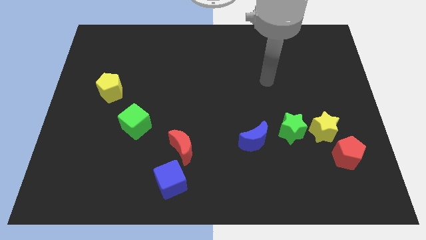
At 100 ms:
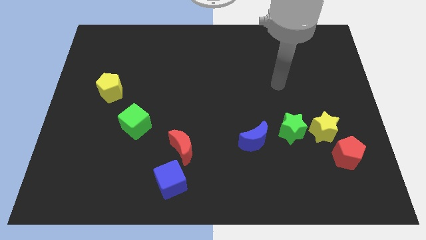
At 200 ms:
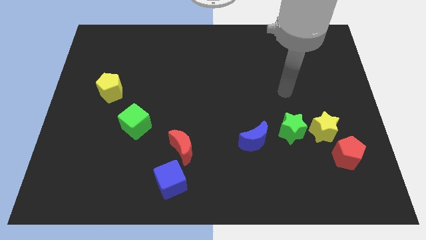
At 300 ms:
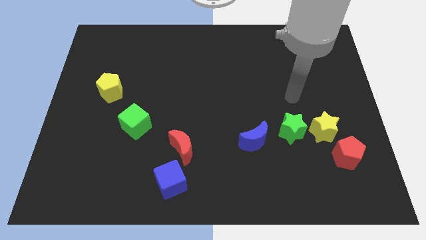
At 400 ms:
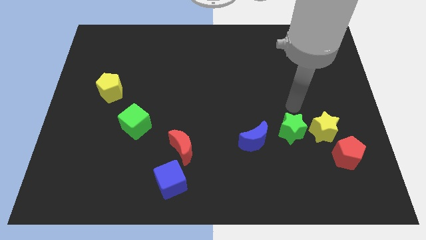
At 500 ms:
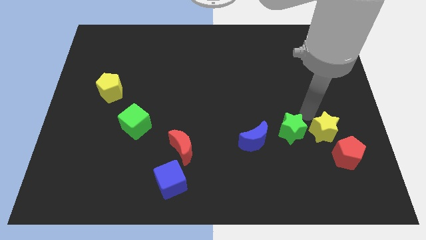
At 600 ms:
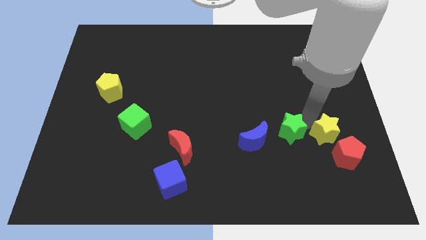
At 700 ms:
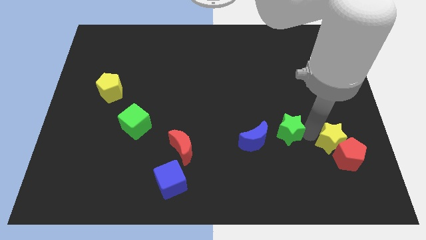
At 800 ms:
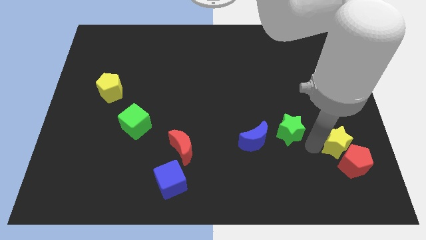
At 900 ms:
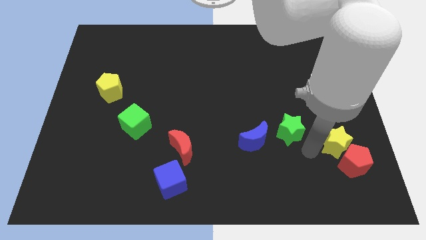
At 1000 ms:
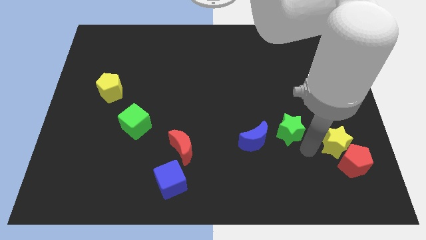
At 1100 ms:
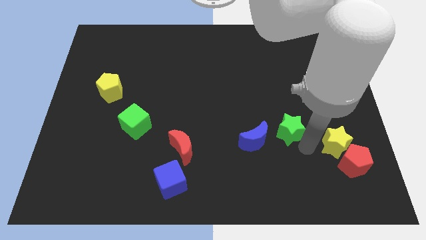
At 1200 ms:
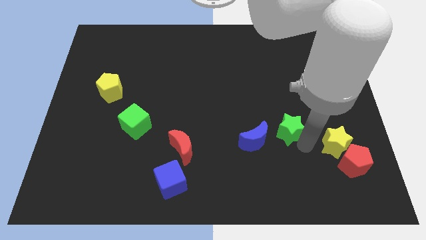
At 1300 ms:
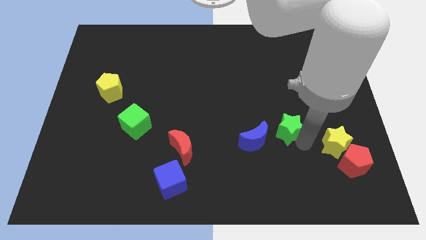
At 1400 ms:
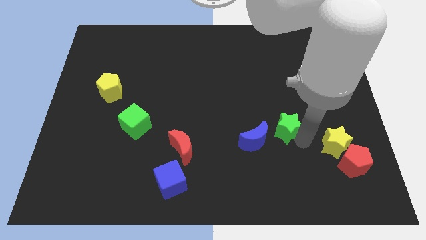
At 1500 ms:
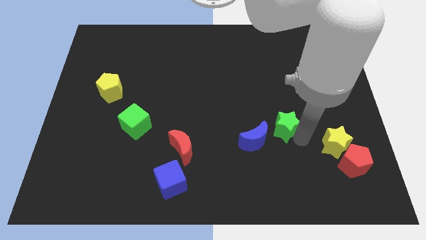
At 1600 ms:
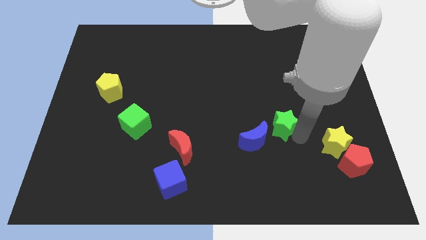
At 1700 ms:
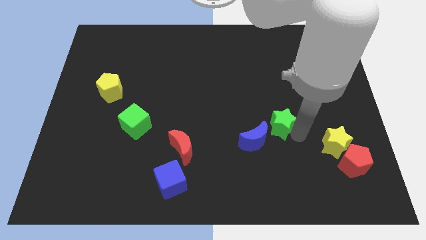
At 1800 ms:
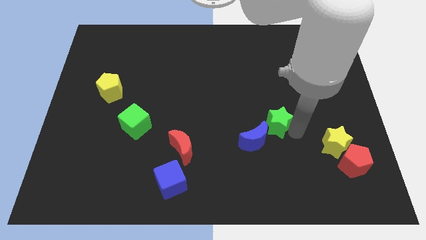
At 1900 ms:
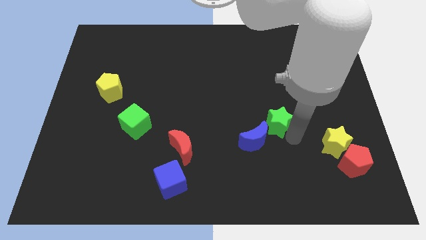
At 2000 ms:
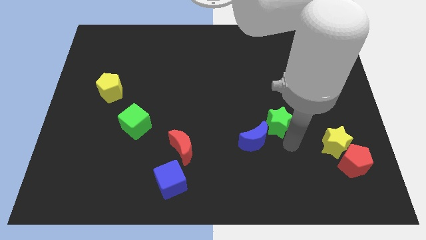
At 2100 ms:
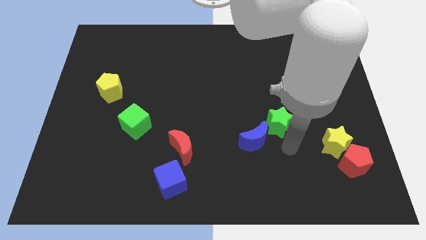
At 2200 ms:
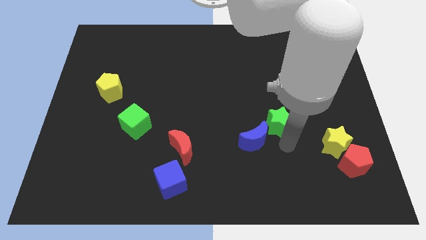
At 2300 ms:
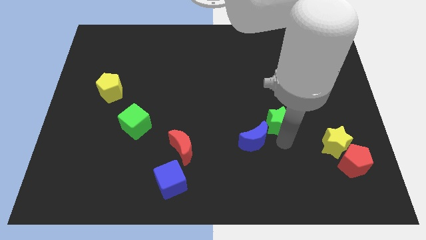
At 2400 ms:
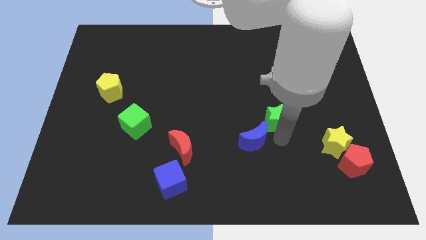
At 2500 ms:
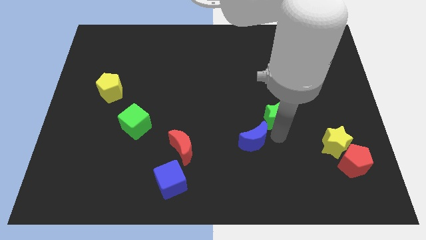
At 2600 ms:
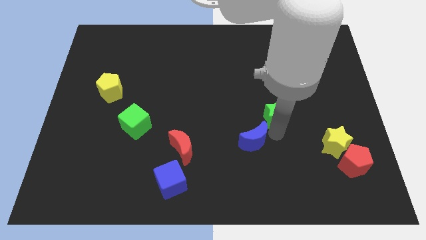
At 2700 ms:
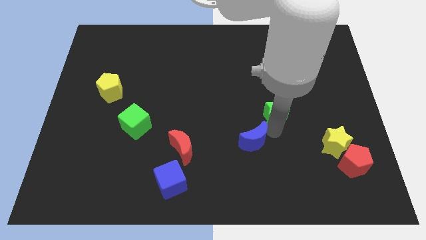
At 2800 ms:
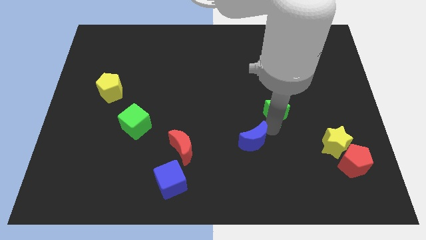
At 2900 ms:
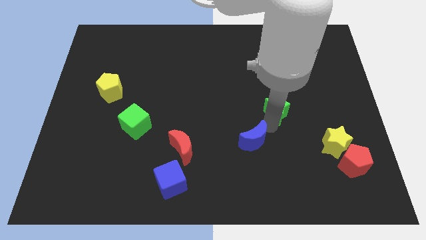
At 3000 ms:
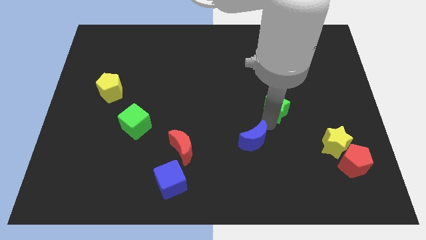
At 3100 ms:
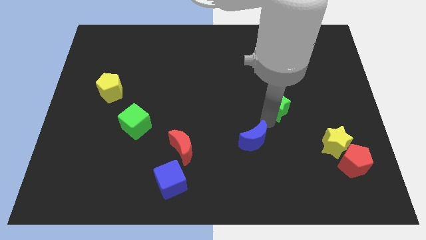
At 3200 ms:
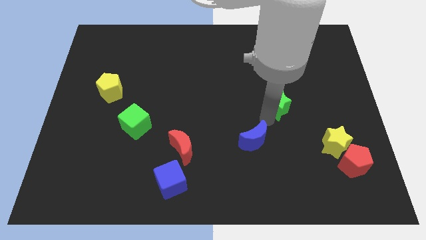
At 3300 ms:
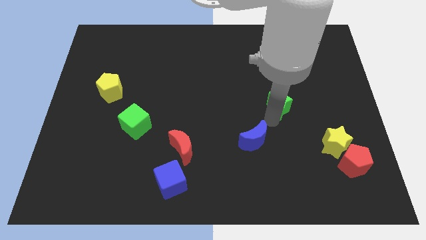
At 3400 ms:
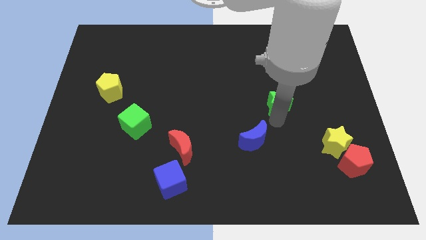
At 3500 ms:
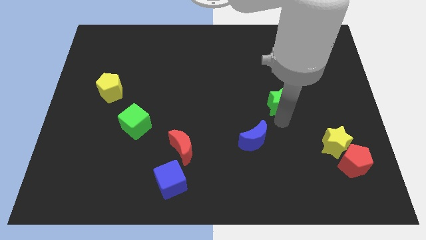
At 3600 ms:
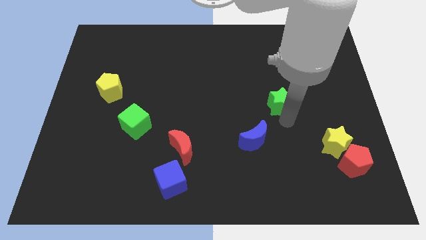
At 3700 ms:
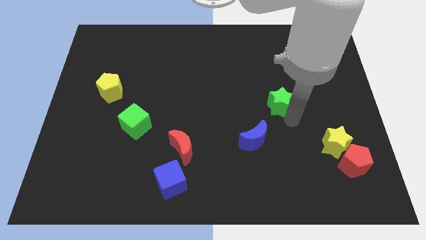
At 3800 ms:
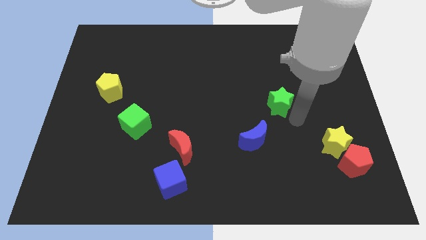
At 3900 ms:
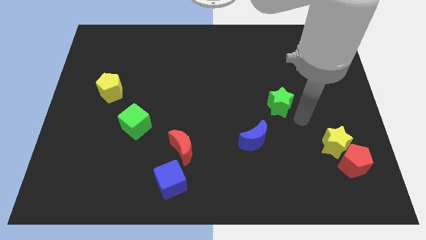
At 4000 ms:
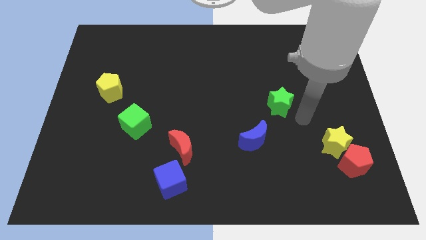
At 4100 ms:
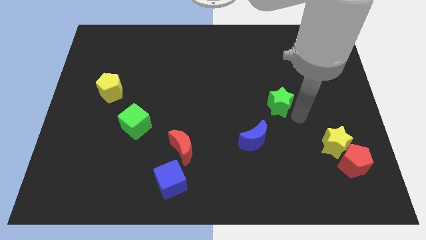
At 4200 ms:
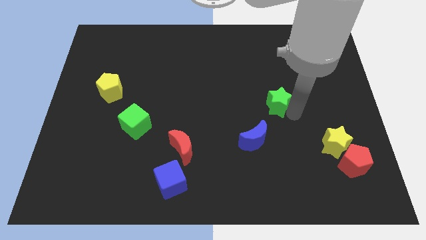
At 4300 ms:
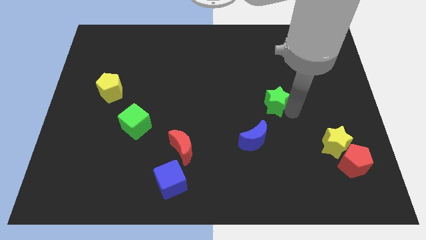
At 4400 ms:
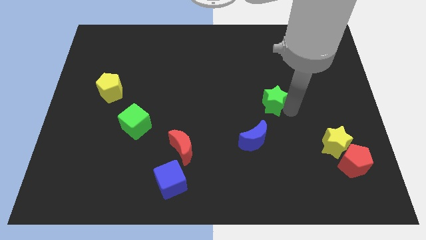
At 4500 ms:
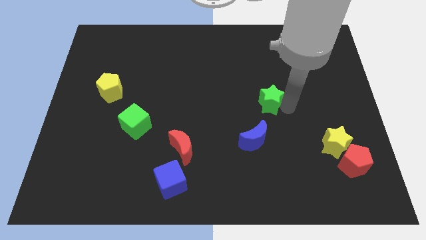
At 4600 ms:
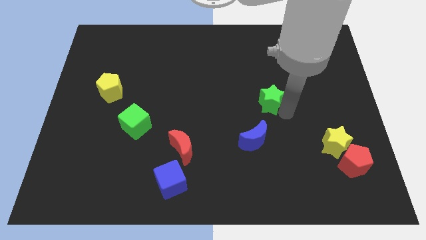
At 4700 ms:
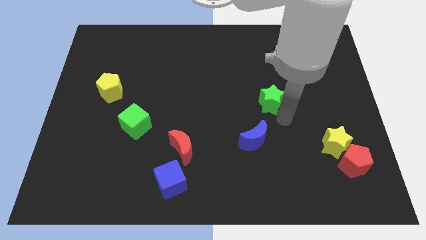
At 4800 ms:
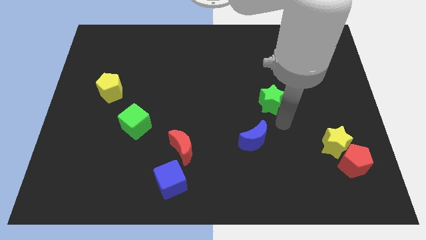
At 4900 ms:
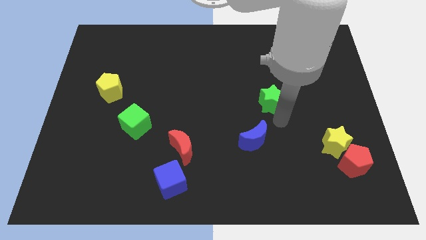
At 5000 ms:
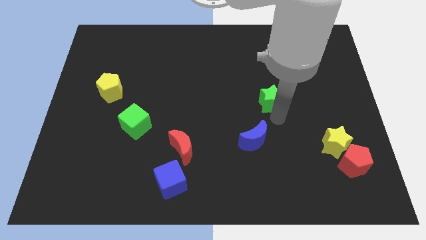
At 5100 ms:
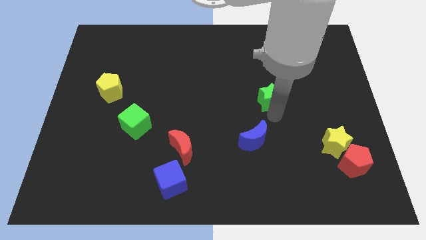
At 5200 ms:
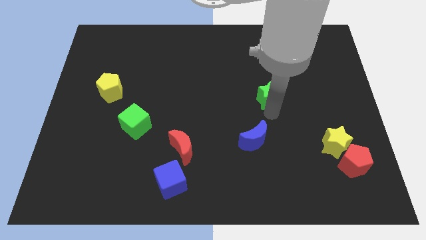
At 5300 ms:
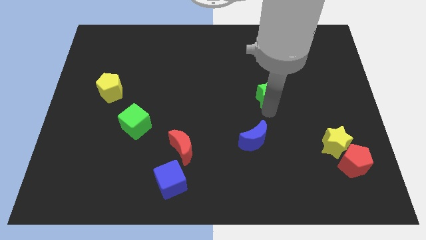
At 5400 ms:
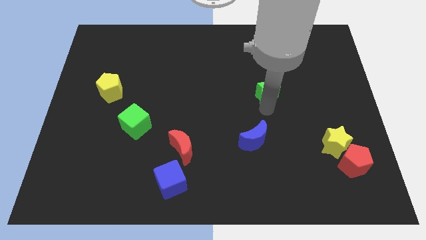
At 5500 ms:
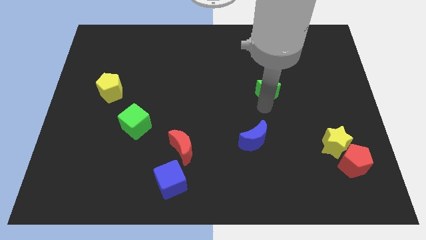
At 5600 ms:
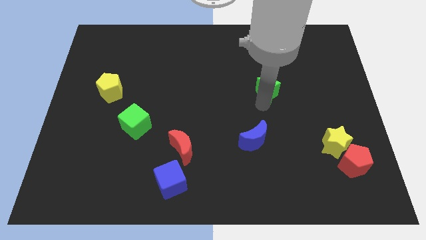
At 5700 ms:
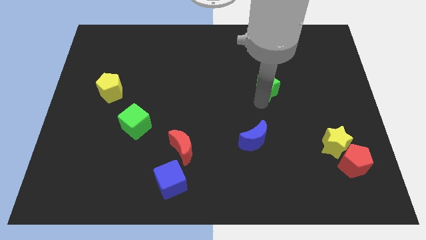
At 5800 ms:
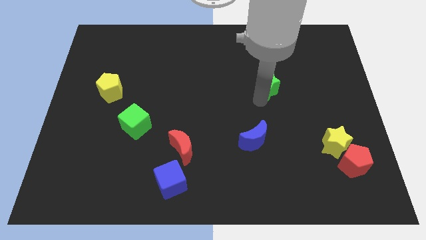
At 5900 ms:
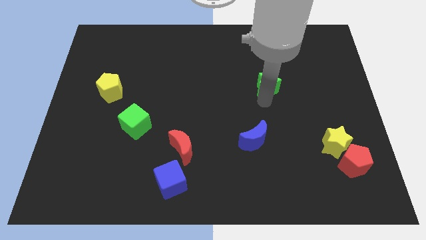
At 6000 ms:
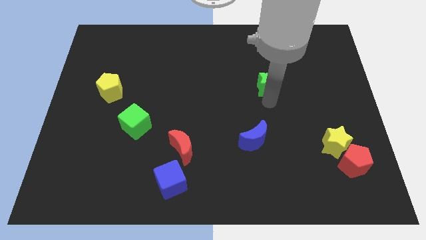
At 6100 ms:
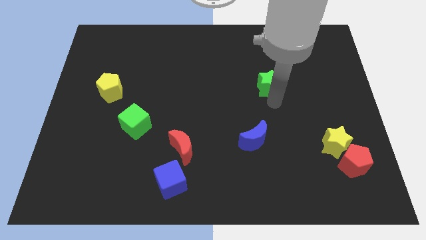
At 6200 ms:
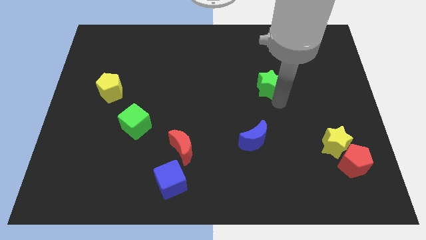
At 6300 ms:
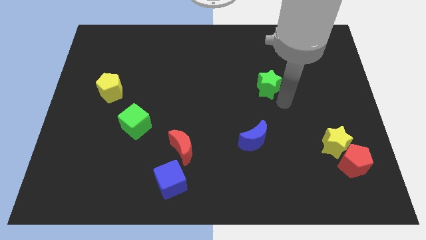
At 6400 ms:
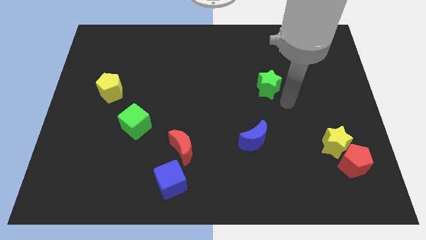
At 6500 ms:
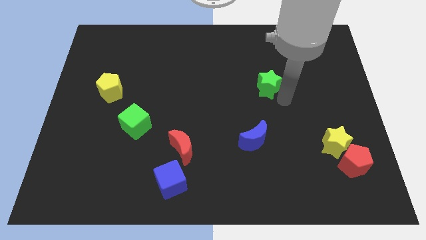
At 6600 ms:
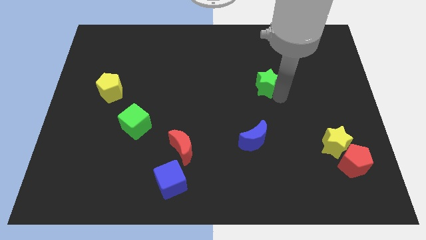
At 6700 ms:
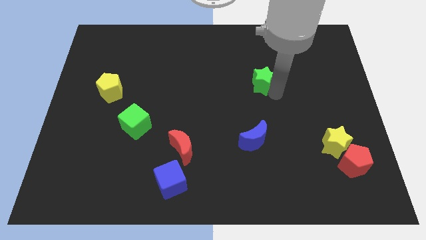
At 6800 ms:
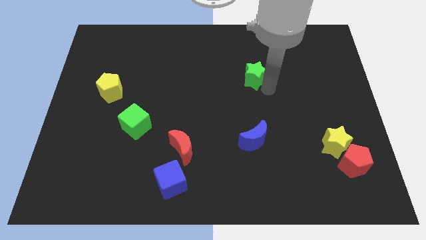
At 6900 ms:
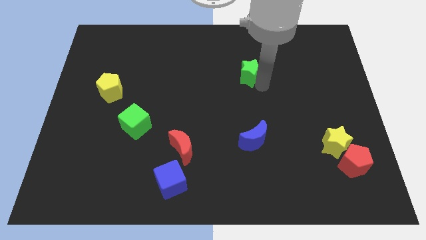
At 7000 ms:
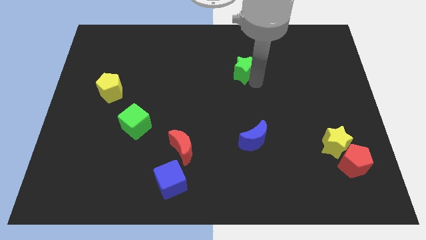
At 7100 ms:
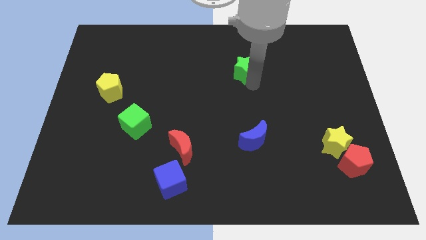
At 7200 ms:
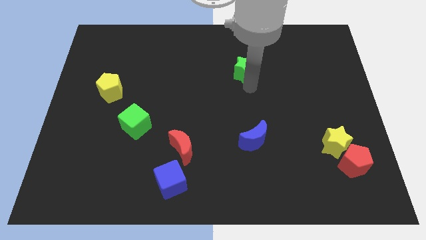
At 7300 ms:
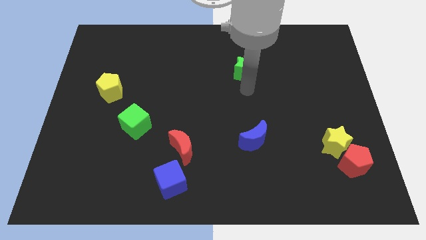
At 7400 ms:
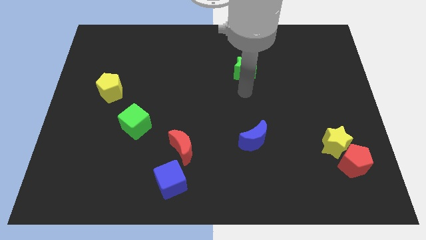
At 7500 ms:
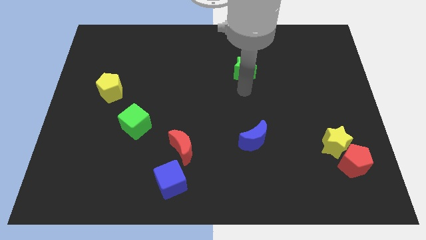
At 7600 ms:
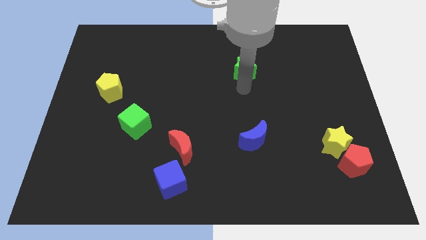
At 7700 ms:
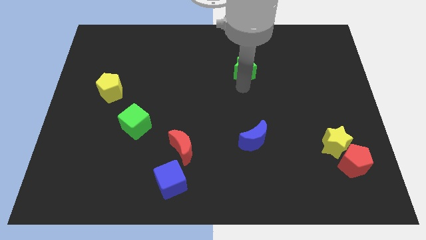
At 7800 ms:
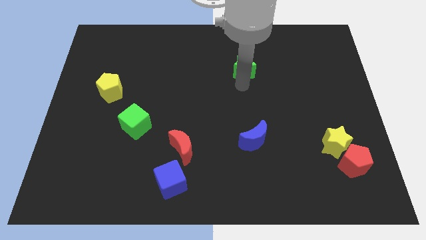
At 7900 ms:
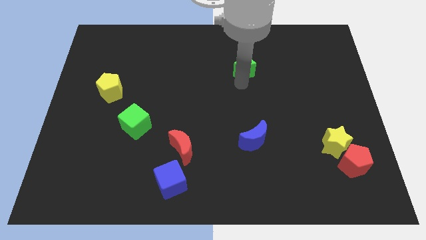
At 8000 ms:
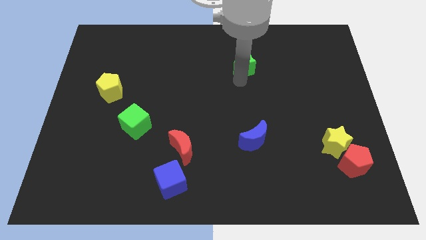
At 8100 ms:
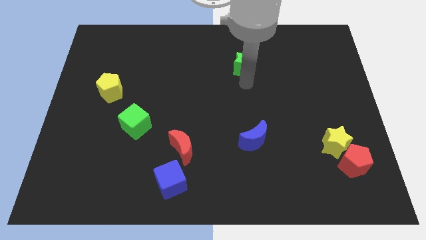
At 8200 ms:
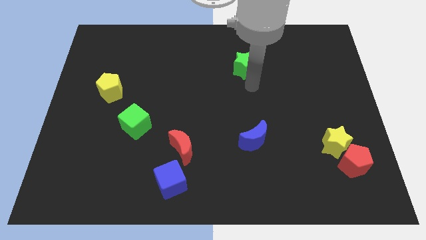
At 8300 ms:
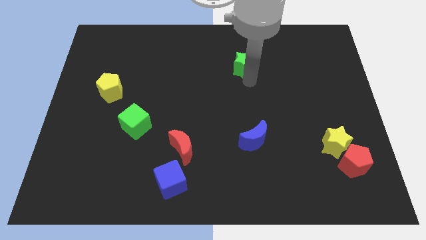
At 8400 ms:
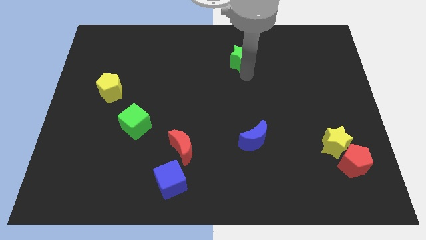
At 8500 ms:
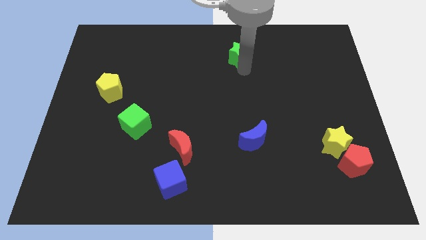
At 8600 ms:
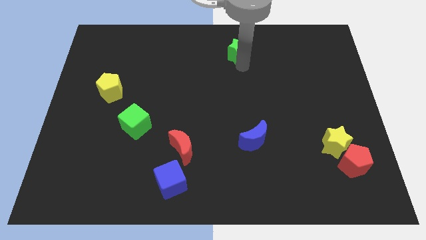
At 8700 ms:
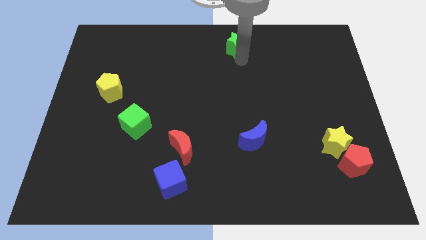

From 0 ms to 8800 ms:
put the green star to the towards your base
